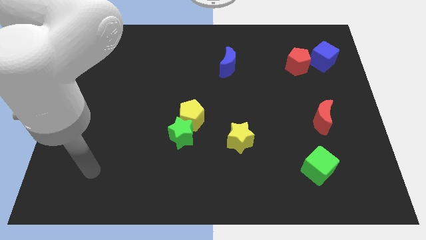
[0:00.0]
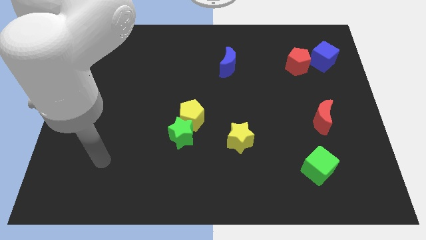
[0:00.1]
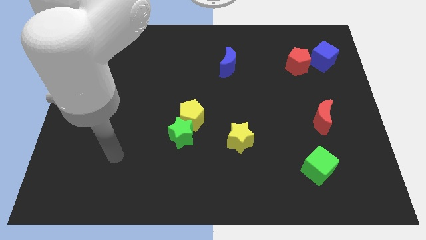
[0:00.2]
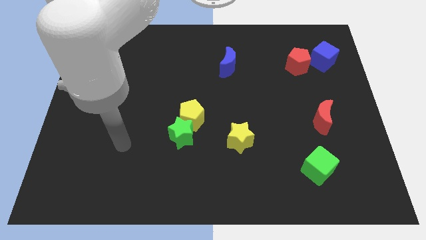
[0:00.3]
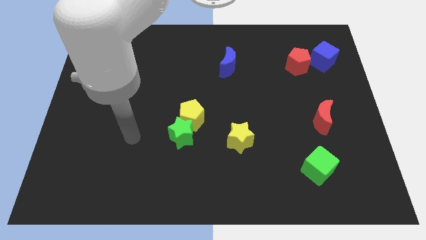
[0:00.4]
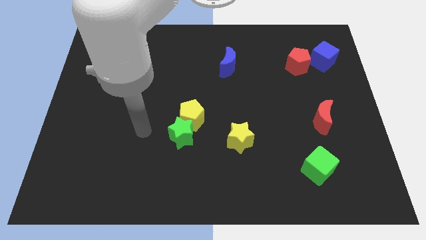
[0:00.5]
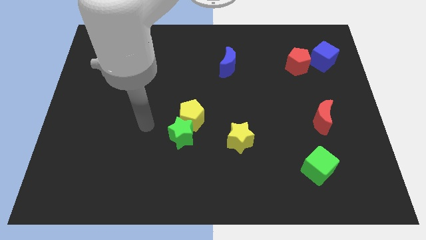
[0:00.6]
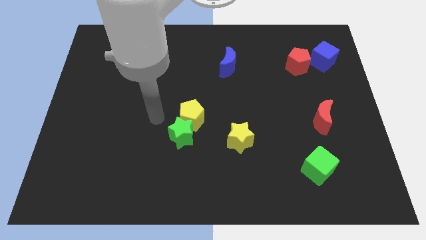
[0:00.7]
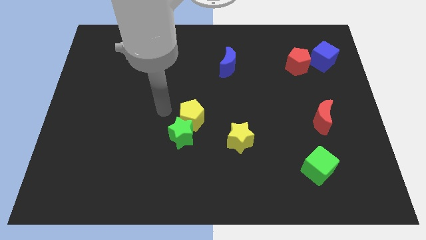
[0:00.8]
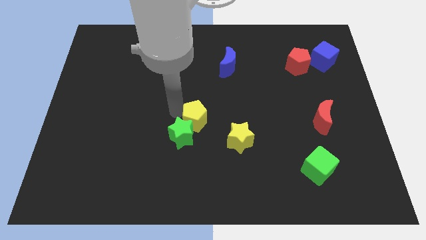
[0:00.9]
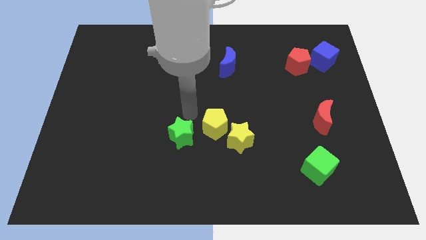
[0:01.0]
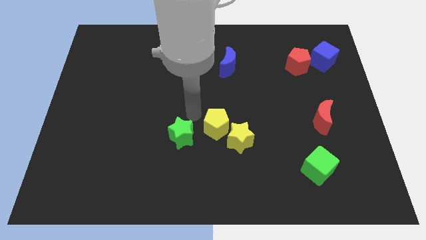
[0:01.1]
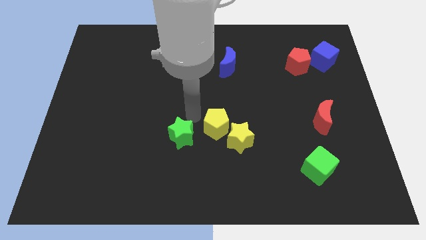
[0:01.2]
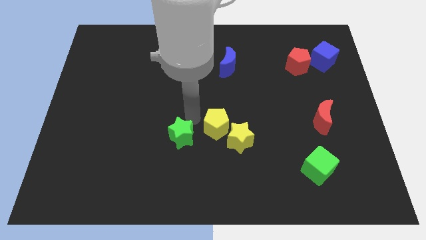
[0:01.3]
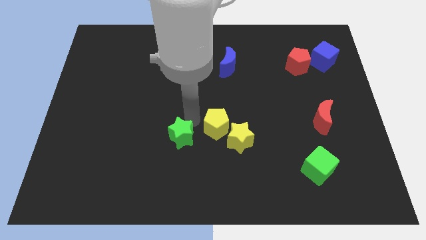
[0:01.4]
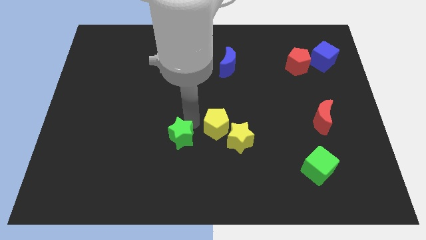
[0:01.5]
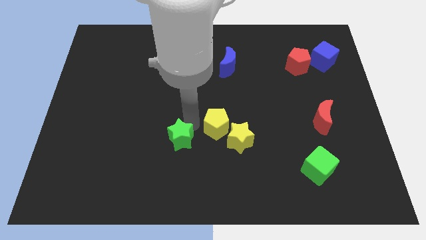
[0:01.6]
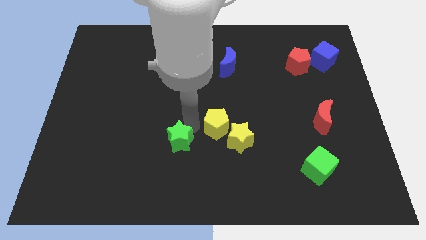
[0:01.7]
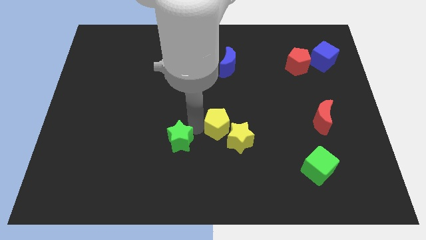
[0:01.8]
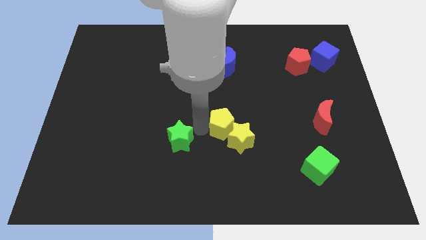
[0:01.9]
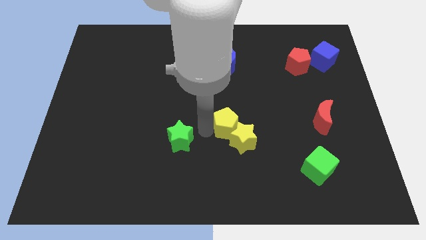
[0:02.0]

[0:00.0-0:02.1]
move the green star away from the yellow pentagon

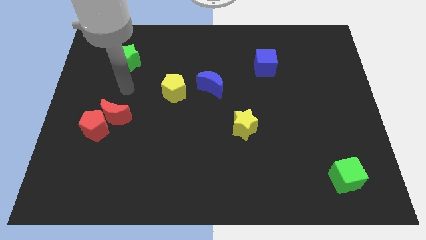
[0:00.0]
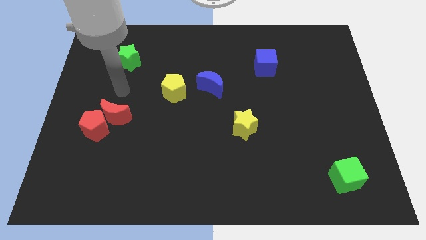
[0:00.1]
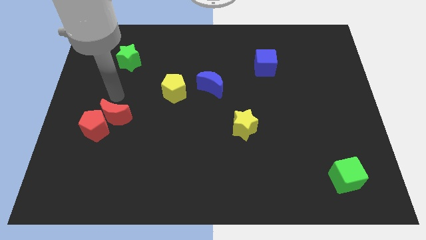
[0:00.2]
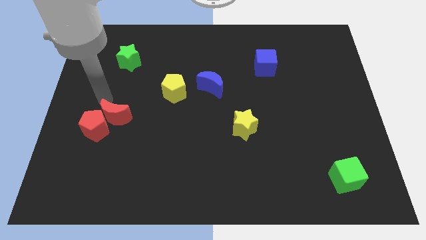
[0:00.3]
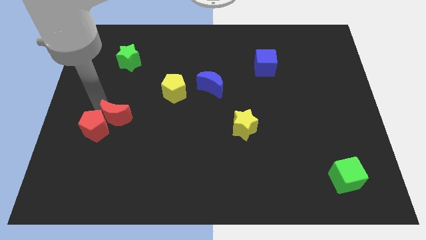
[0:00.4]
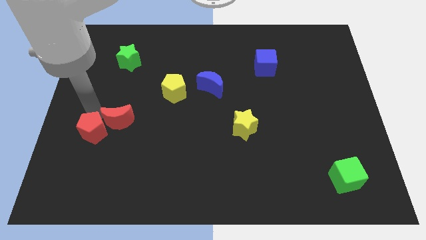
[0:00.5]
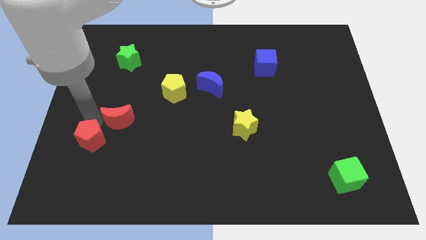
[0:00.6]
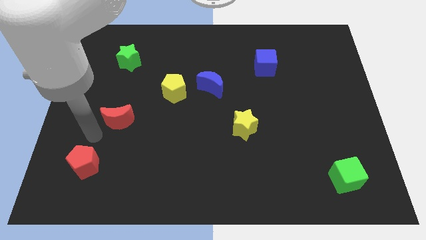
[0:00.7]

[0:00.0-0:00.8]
pull the red moon apart from the red pentagon

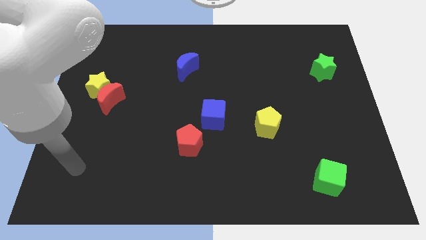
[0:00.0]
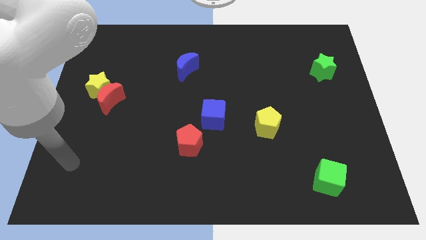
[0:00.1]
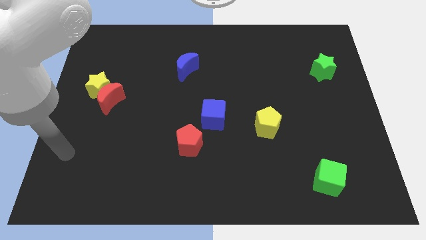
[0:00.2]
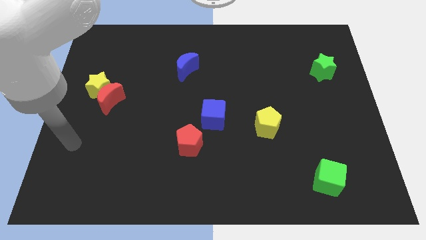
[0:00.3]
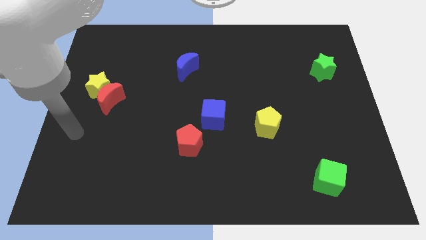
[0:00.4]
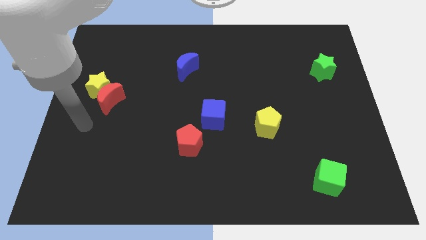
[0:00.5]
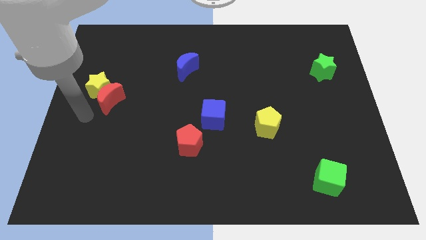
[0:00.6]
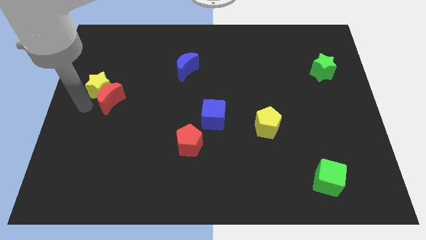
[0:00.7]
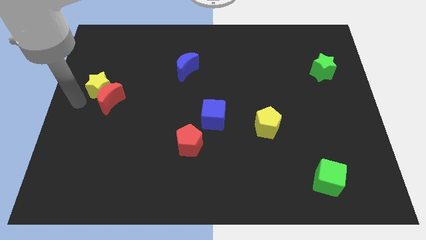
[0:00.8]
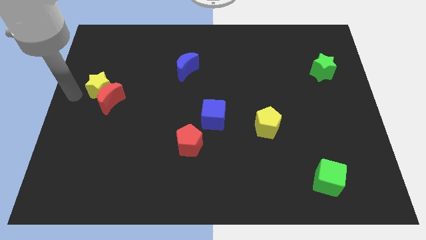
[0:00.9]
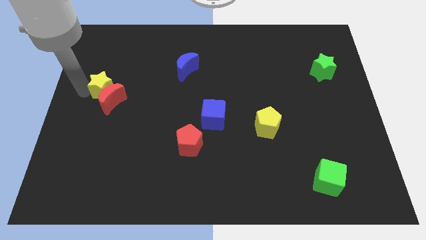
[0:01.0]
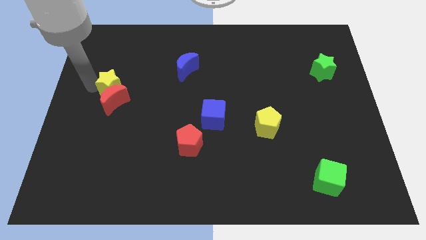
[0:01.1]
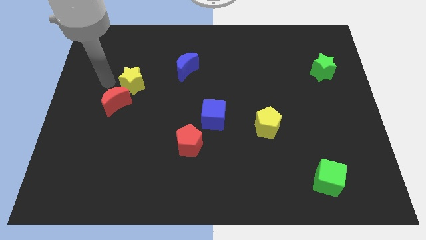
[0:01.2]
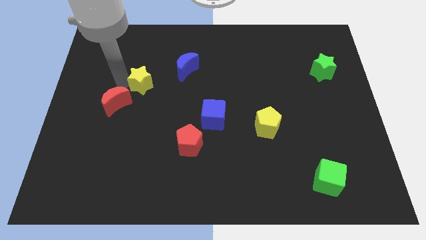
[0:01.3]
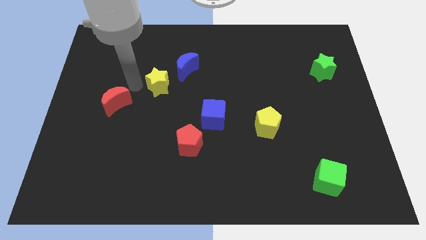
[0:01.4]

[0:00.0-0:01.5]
pull the red moon apart from the yellow star

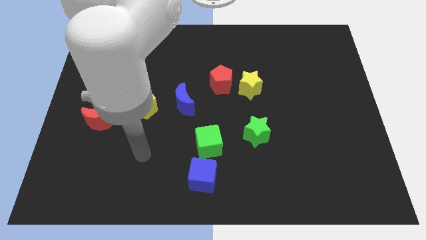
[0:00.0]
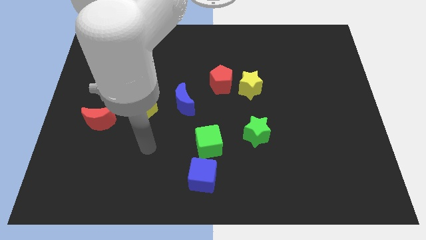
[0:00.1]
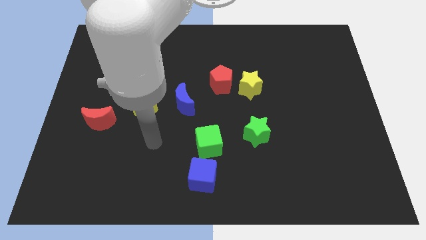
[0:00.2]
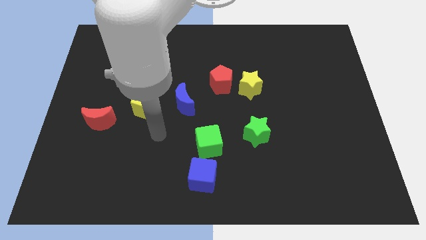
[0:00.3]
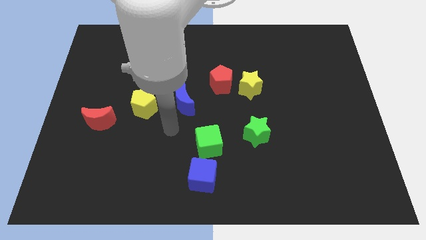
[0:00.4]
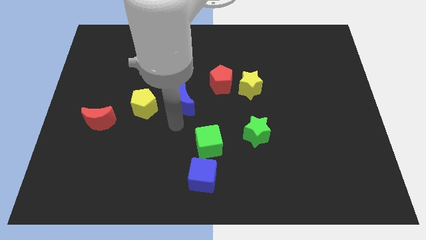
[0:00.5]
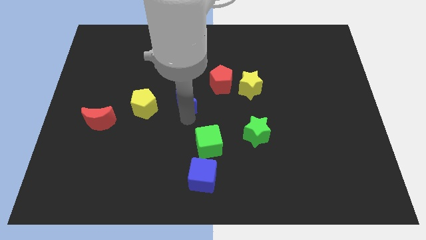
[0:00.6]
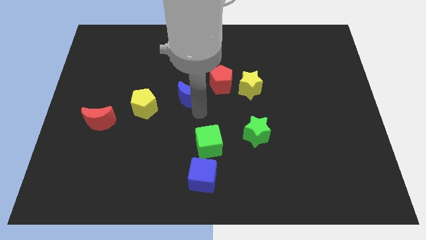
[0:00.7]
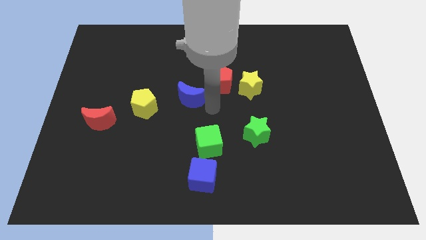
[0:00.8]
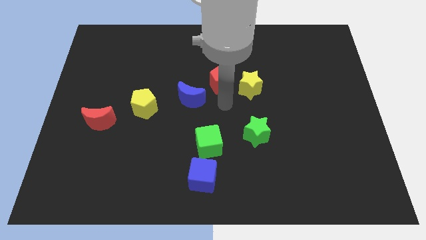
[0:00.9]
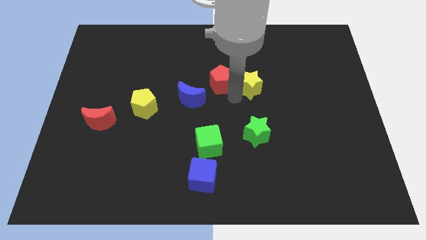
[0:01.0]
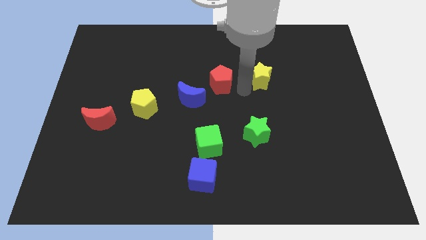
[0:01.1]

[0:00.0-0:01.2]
pull the red pentagon apart from the yellow star

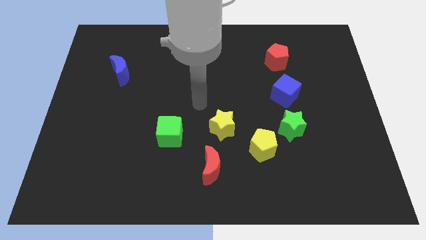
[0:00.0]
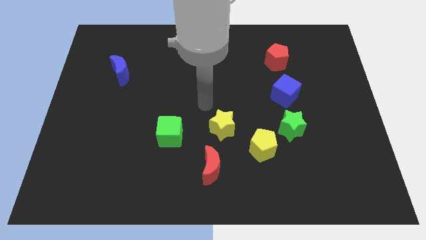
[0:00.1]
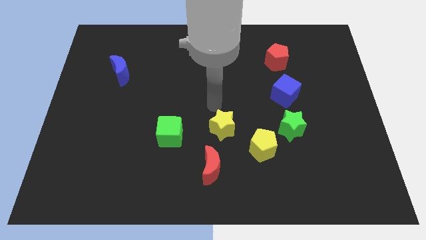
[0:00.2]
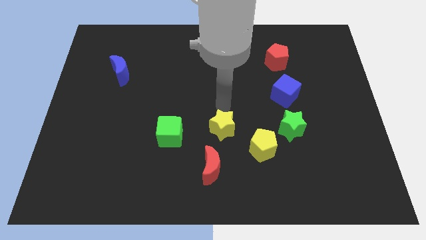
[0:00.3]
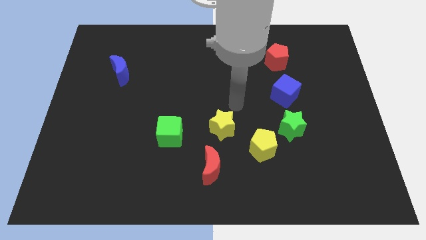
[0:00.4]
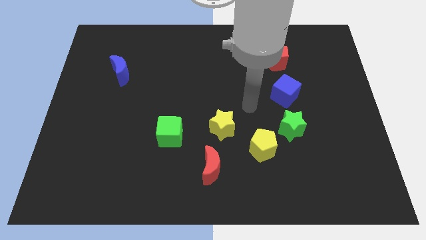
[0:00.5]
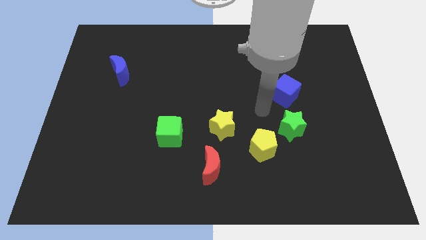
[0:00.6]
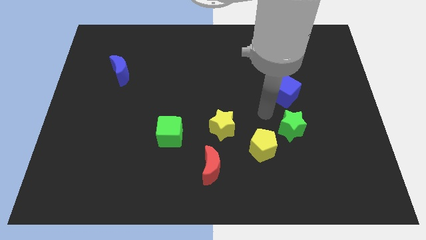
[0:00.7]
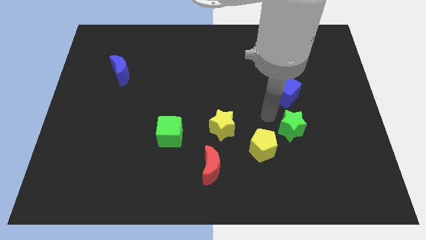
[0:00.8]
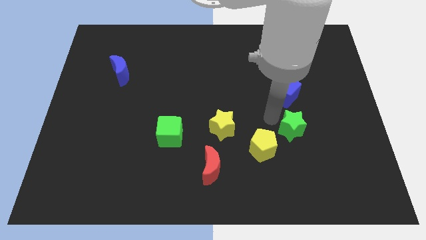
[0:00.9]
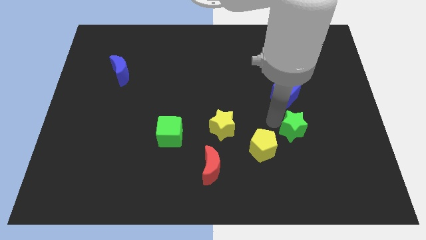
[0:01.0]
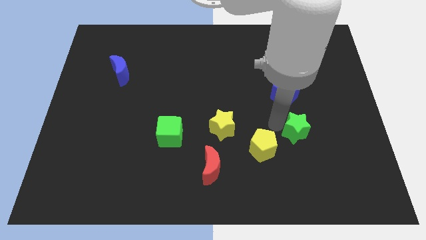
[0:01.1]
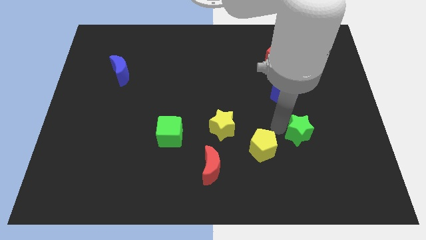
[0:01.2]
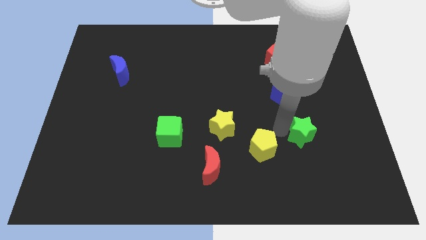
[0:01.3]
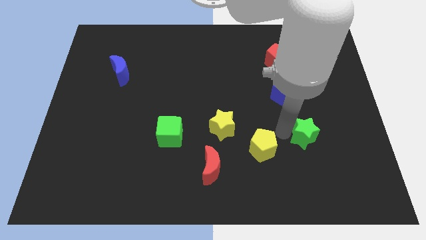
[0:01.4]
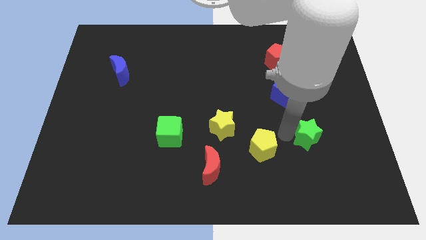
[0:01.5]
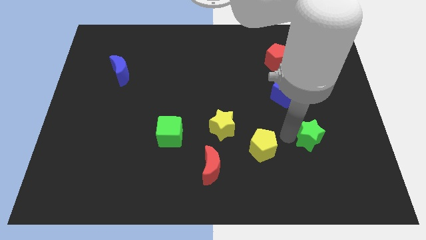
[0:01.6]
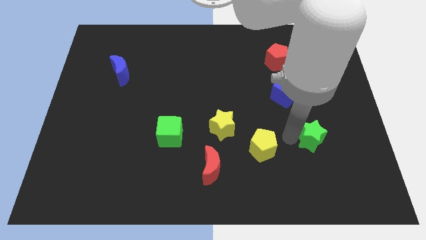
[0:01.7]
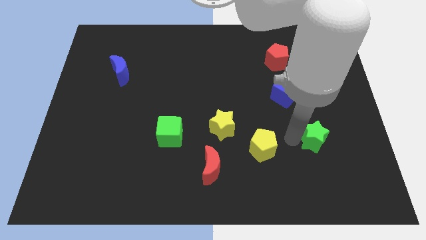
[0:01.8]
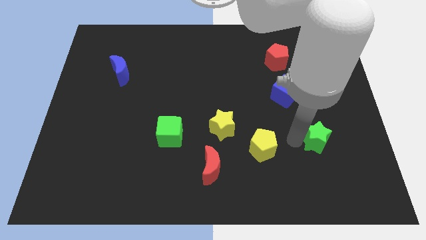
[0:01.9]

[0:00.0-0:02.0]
move the green star away from the yellow pentagon and blue cube

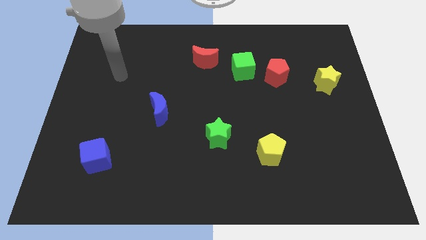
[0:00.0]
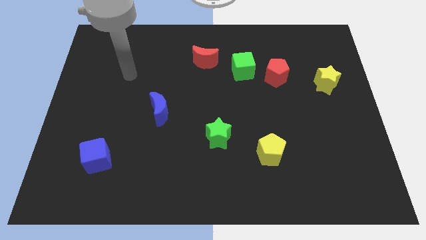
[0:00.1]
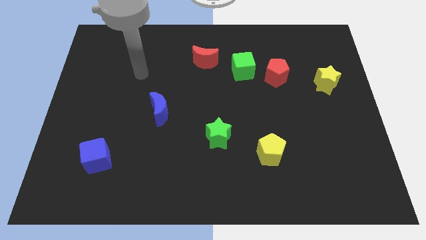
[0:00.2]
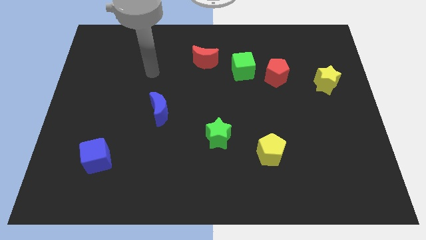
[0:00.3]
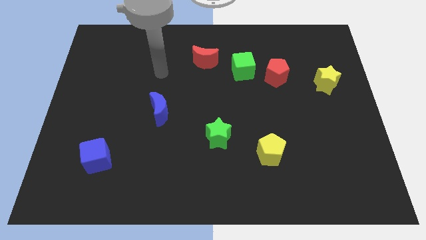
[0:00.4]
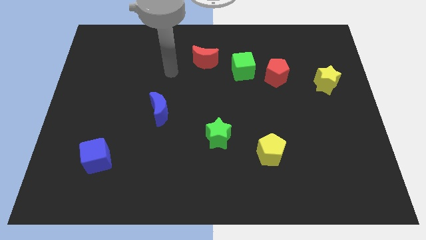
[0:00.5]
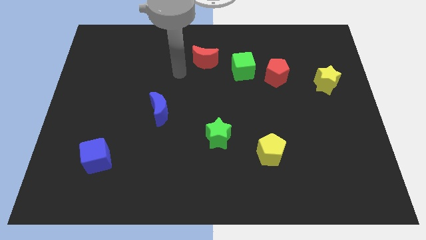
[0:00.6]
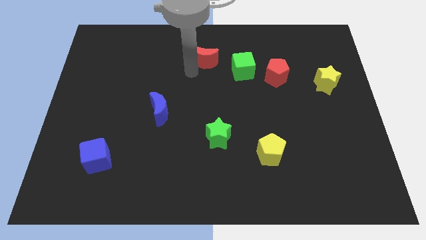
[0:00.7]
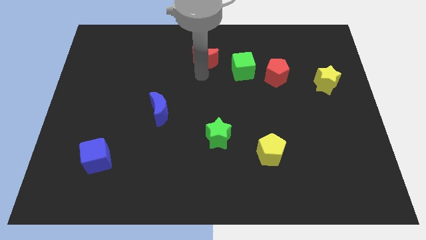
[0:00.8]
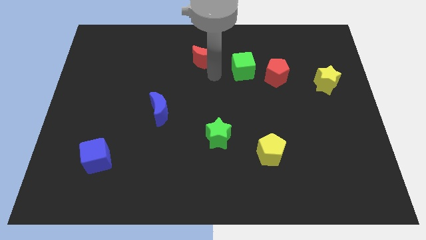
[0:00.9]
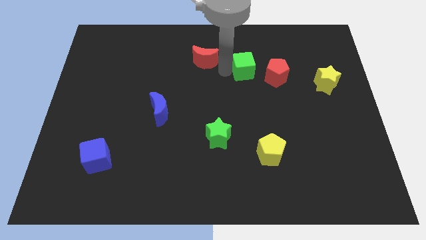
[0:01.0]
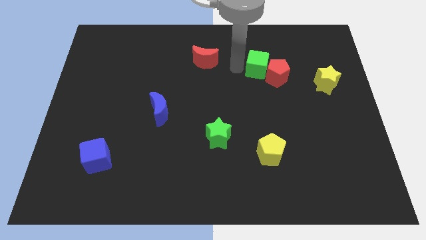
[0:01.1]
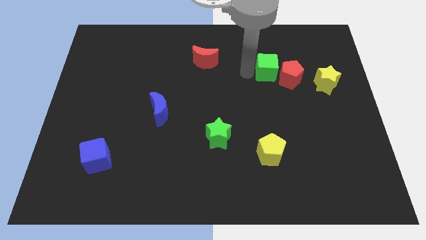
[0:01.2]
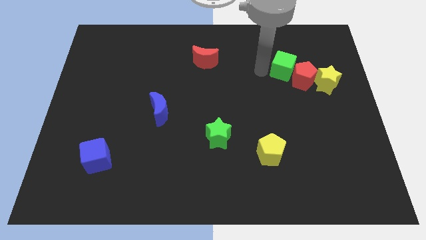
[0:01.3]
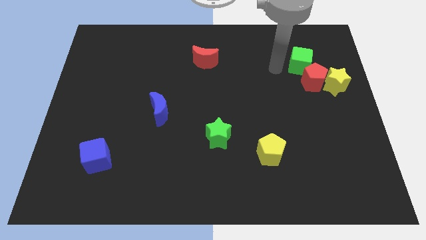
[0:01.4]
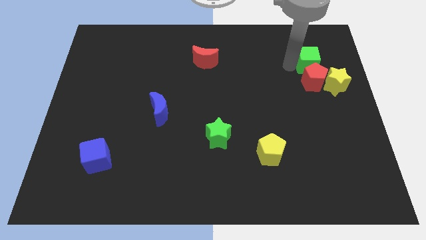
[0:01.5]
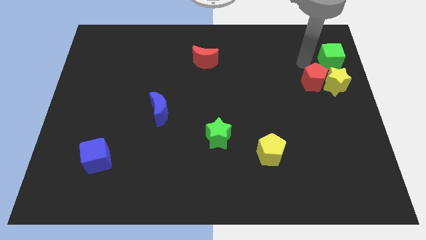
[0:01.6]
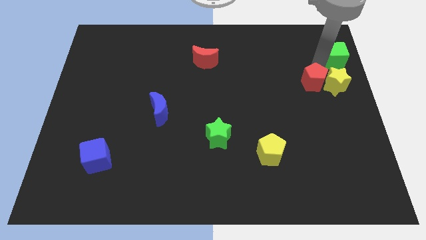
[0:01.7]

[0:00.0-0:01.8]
move the red pentagon away from the green cube

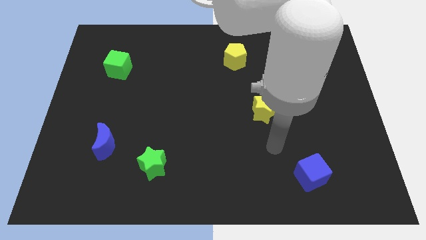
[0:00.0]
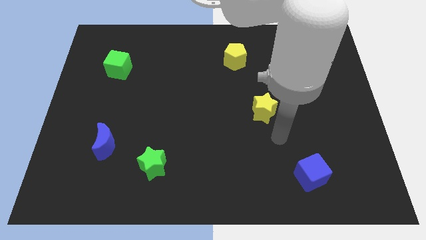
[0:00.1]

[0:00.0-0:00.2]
pull the yellow star apart from the red moon
